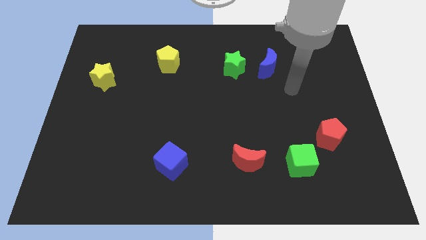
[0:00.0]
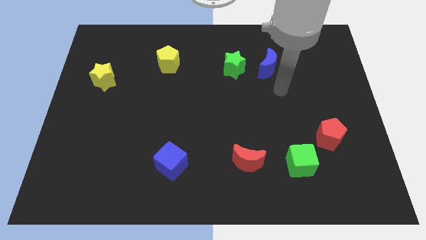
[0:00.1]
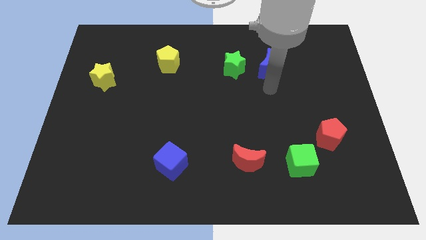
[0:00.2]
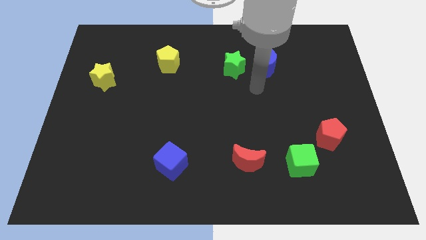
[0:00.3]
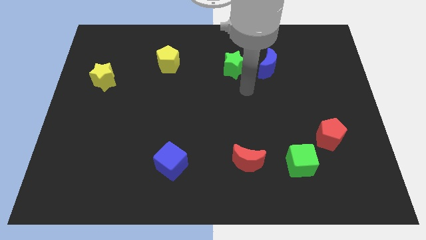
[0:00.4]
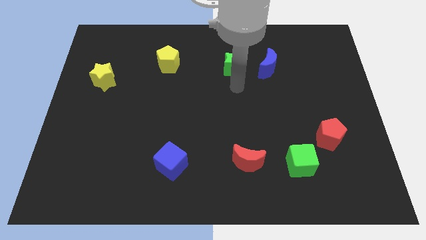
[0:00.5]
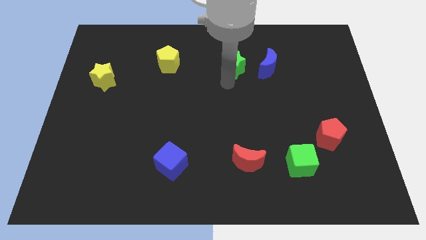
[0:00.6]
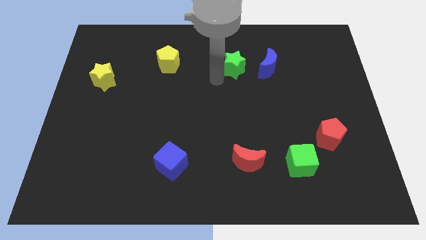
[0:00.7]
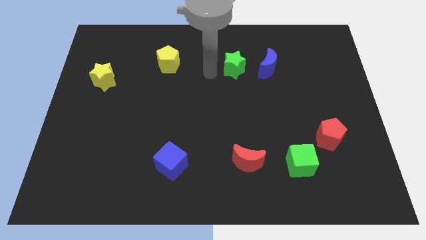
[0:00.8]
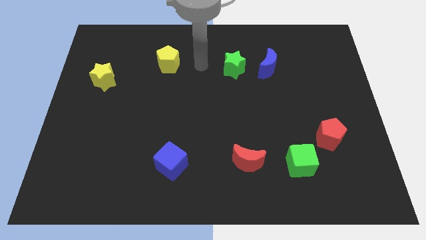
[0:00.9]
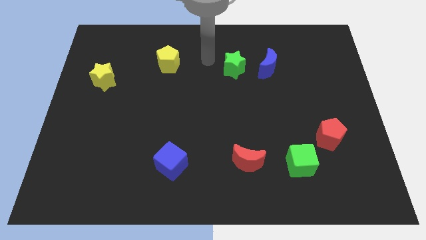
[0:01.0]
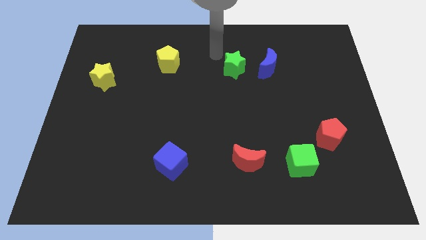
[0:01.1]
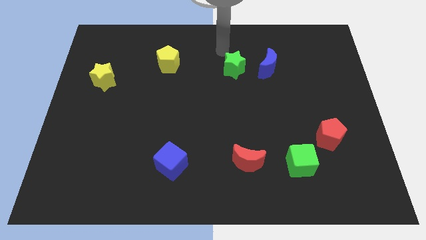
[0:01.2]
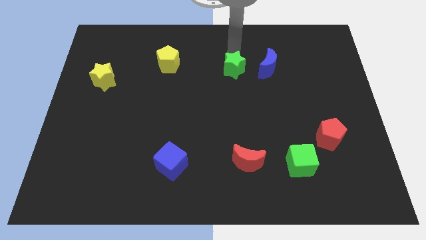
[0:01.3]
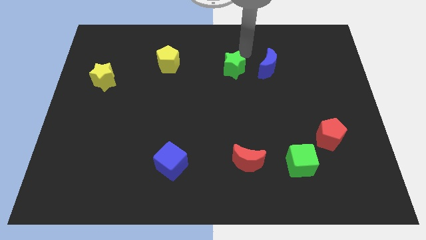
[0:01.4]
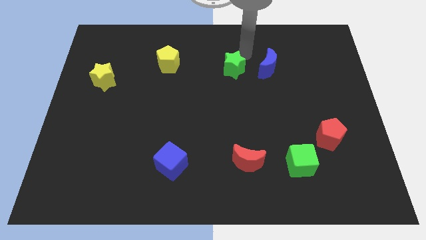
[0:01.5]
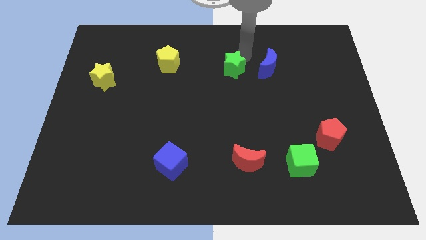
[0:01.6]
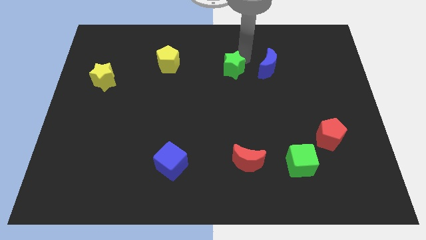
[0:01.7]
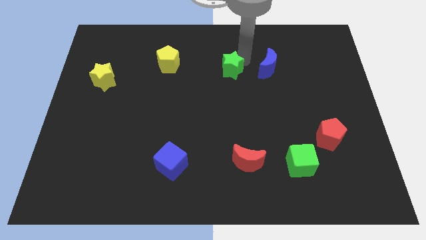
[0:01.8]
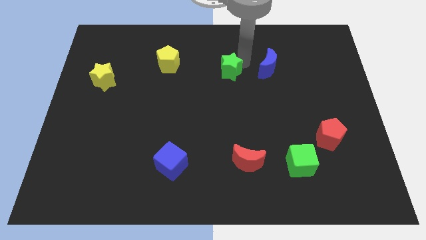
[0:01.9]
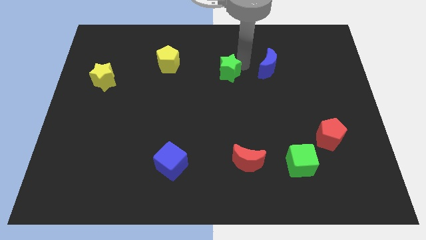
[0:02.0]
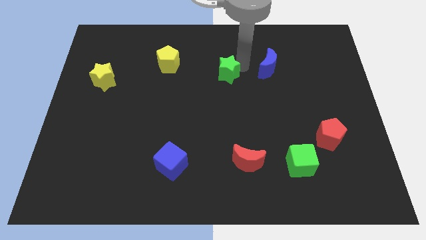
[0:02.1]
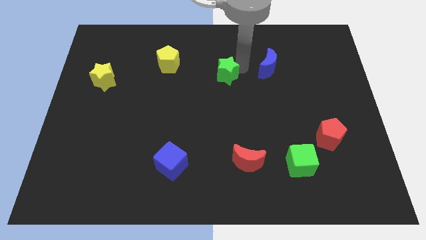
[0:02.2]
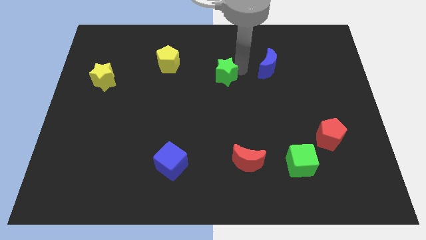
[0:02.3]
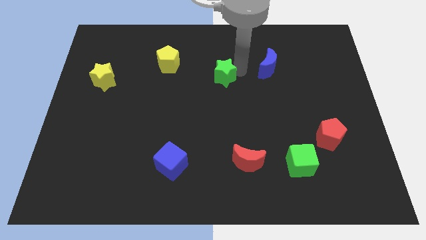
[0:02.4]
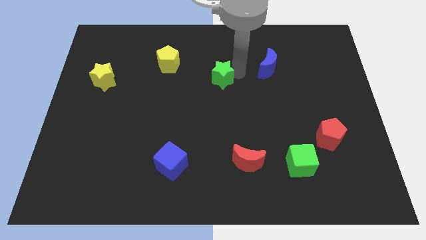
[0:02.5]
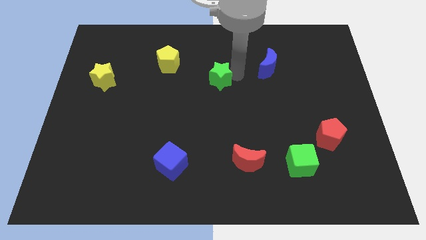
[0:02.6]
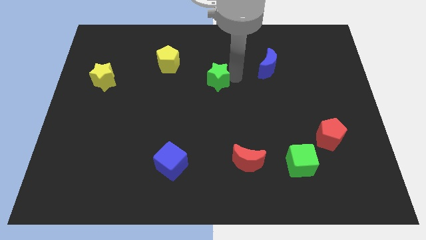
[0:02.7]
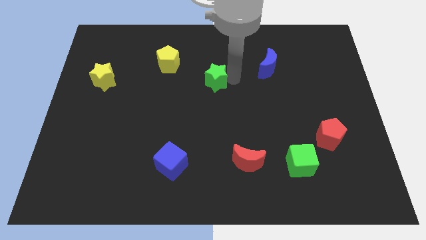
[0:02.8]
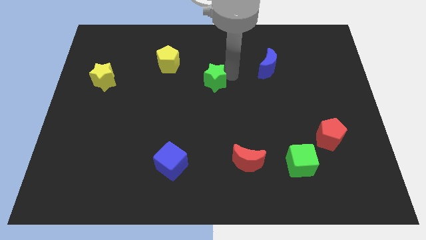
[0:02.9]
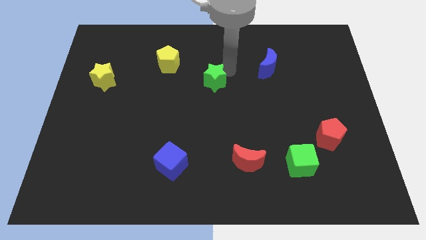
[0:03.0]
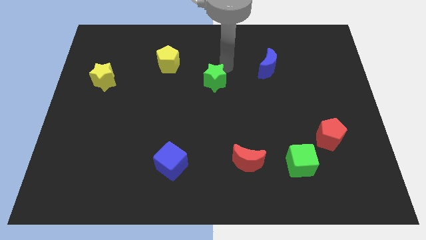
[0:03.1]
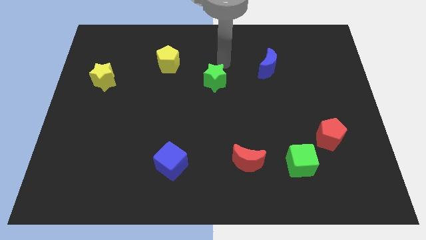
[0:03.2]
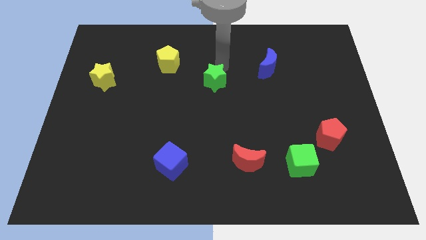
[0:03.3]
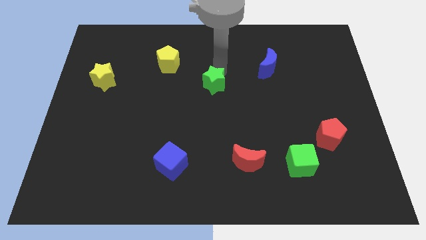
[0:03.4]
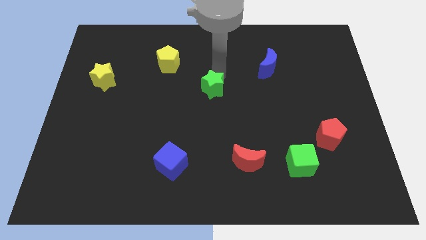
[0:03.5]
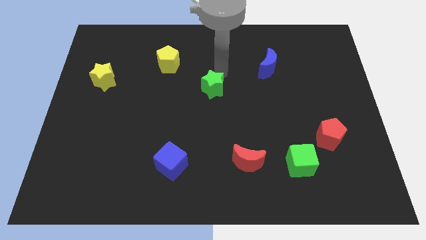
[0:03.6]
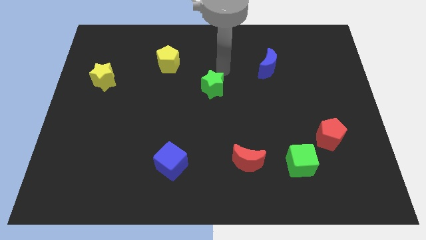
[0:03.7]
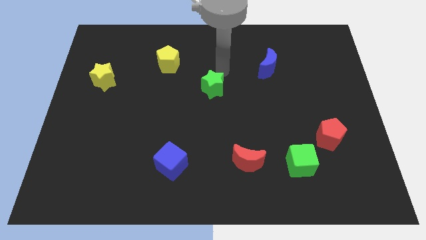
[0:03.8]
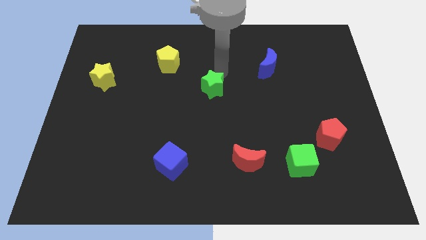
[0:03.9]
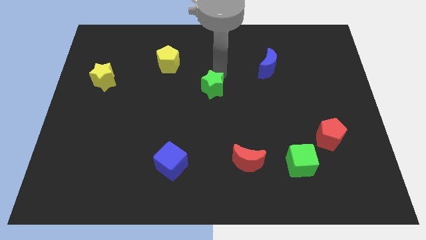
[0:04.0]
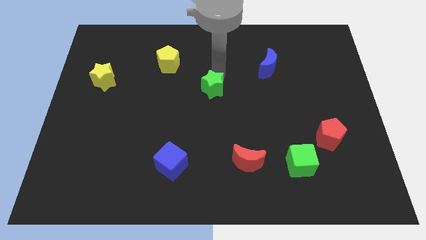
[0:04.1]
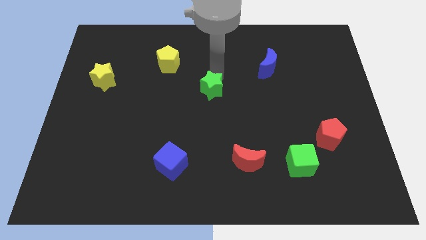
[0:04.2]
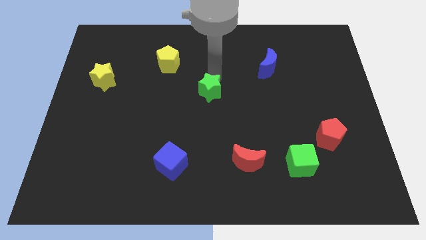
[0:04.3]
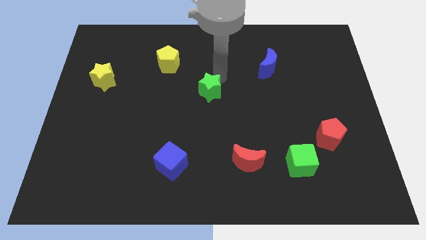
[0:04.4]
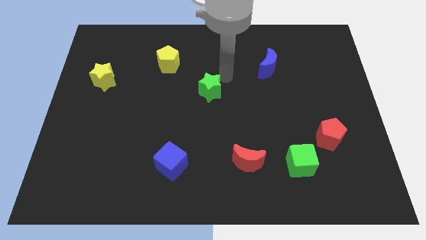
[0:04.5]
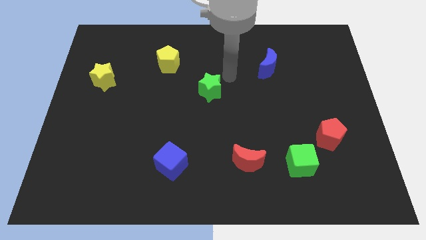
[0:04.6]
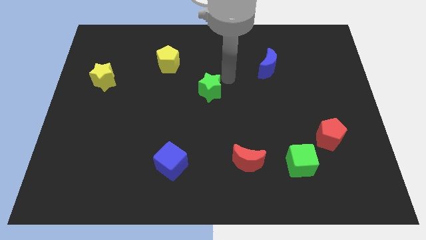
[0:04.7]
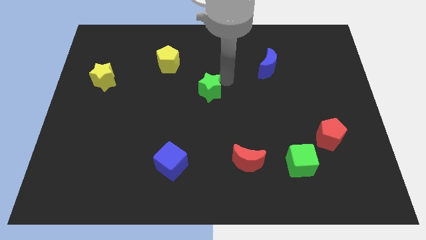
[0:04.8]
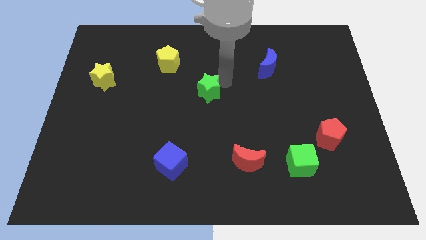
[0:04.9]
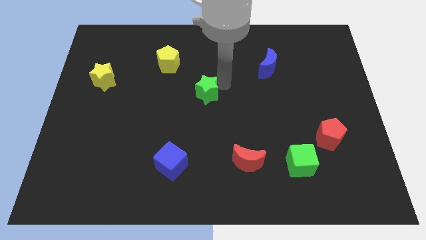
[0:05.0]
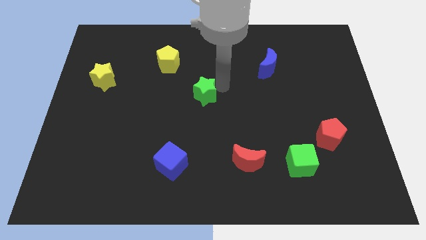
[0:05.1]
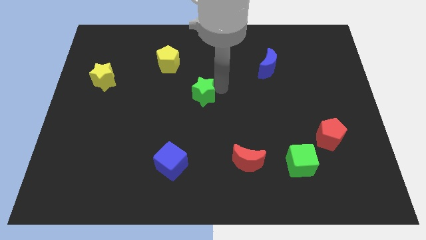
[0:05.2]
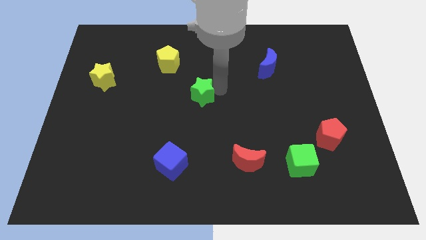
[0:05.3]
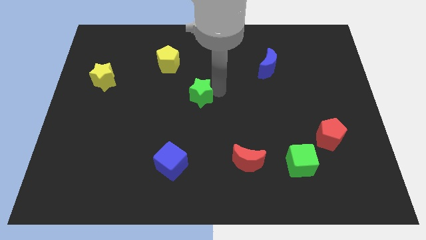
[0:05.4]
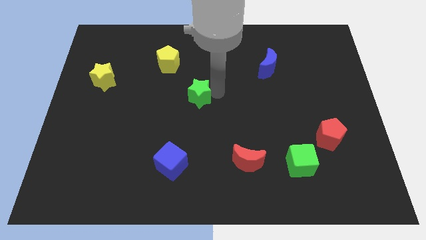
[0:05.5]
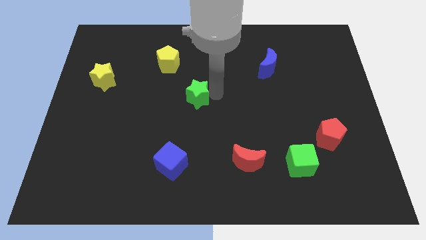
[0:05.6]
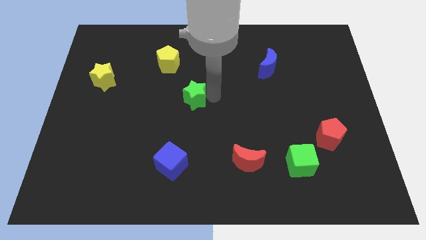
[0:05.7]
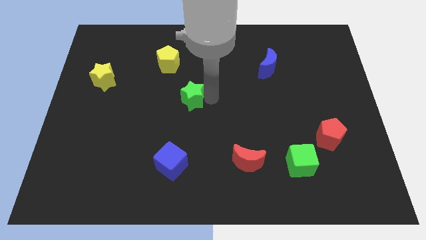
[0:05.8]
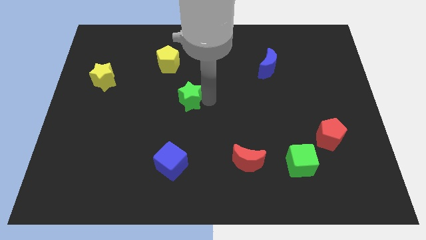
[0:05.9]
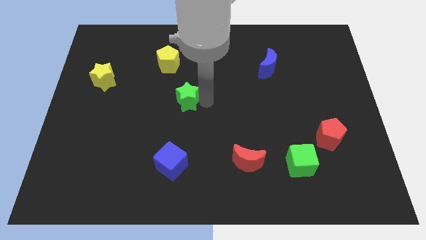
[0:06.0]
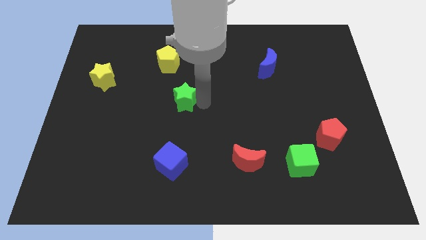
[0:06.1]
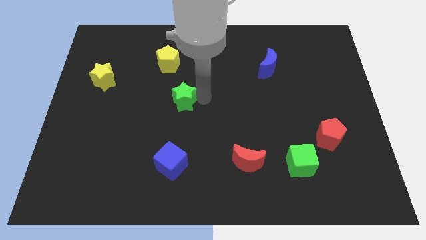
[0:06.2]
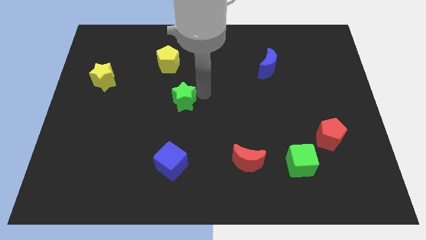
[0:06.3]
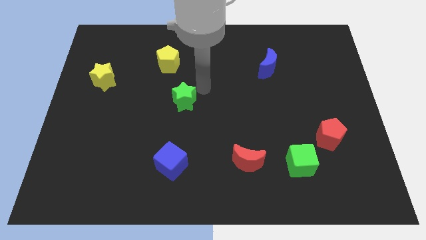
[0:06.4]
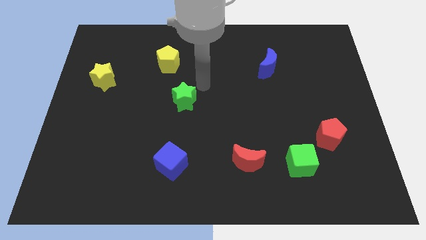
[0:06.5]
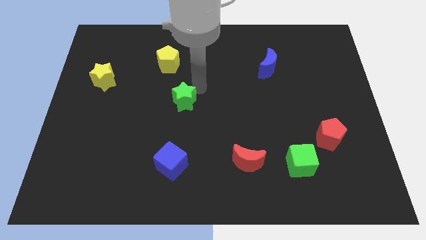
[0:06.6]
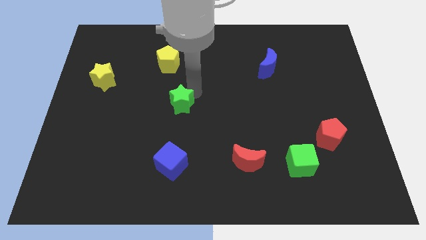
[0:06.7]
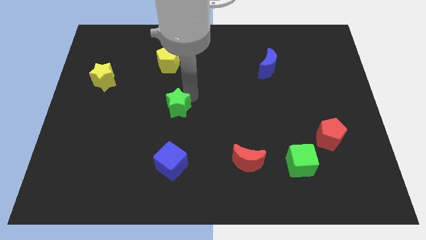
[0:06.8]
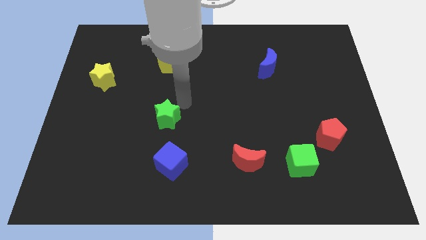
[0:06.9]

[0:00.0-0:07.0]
slide the green star down and left

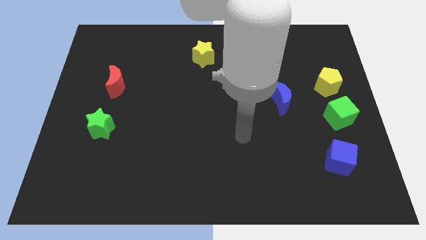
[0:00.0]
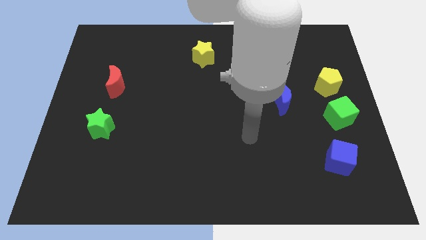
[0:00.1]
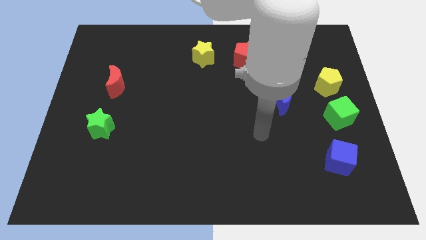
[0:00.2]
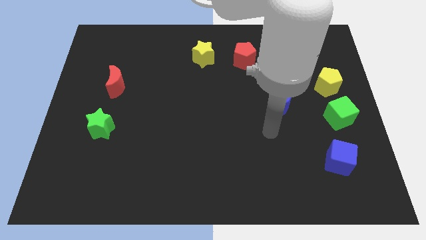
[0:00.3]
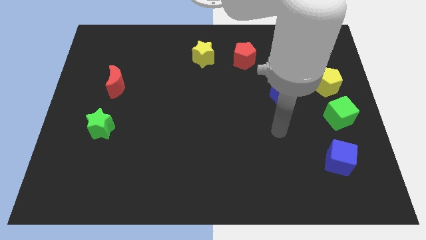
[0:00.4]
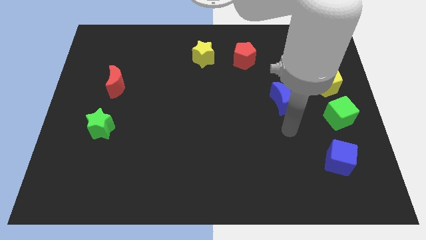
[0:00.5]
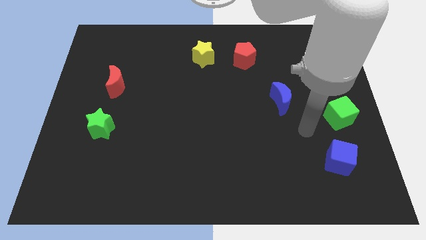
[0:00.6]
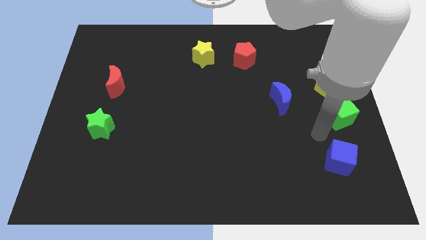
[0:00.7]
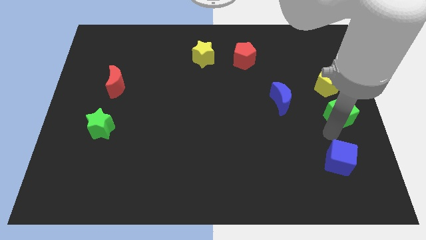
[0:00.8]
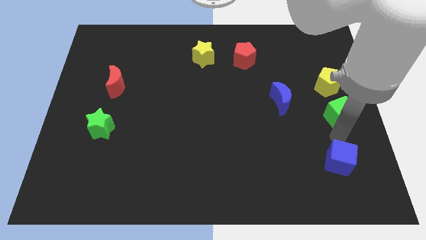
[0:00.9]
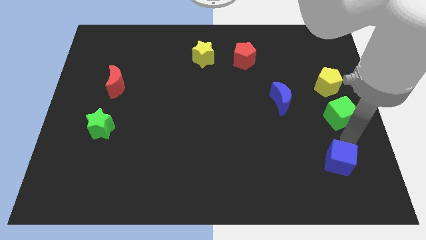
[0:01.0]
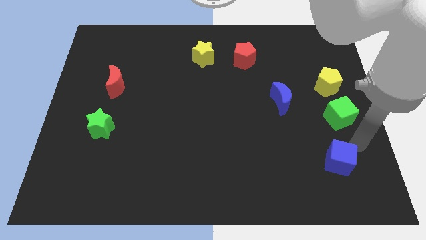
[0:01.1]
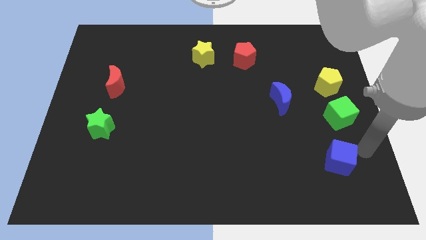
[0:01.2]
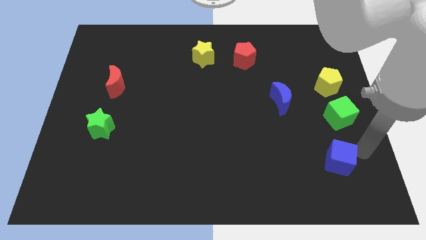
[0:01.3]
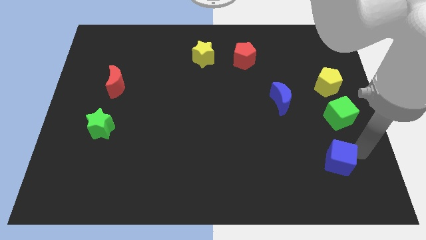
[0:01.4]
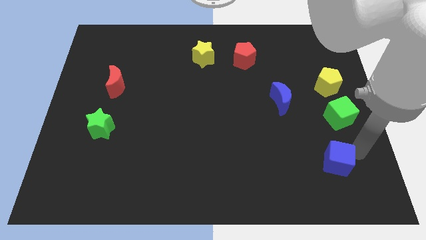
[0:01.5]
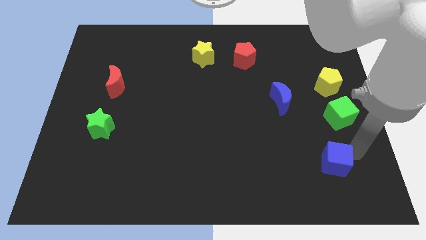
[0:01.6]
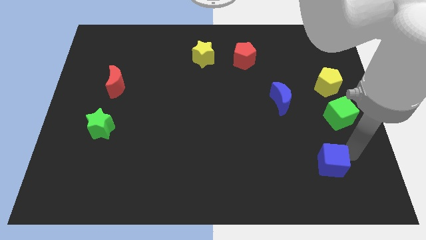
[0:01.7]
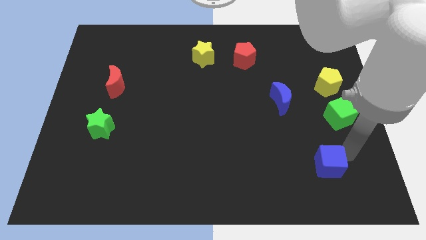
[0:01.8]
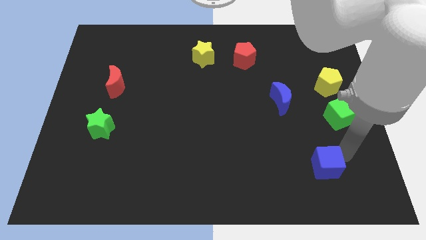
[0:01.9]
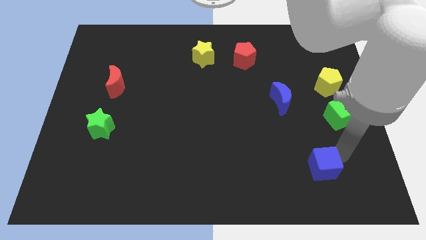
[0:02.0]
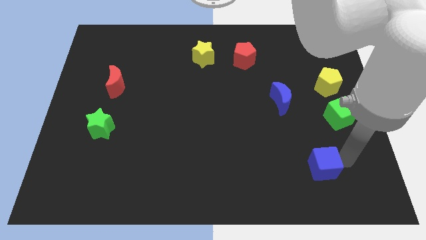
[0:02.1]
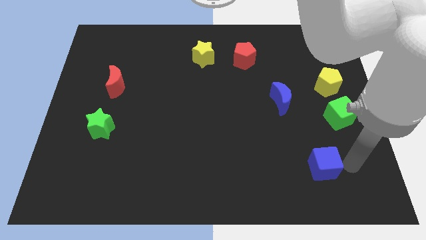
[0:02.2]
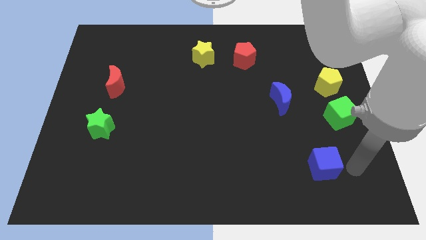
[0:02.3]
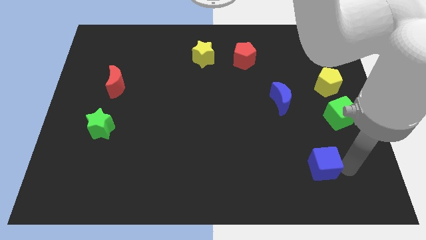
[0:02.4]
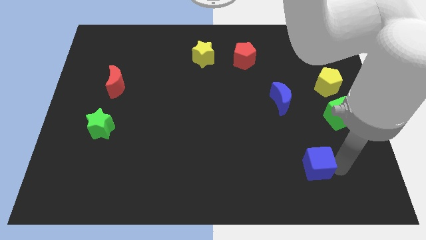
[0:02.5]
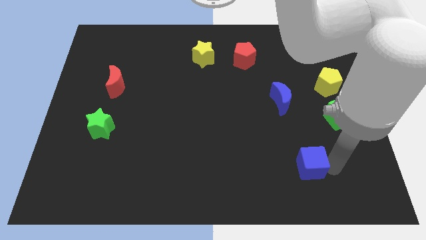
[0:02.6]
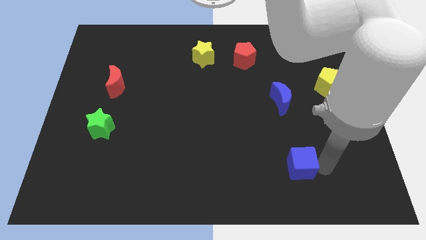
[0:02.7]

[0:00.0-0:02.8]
slide the blue cube left a little
